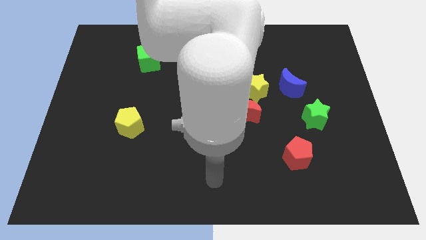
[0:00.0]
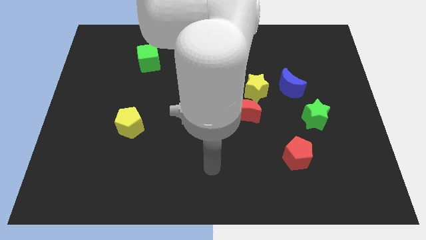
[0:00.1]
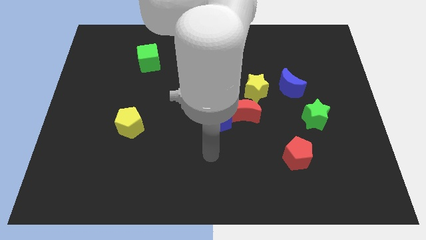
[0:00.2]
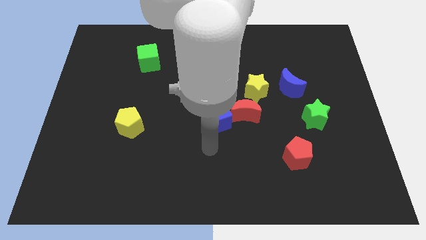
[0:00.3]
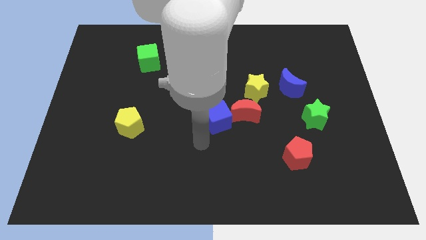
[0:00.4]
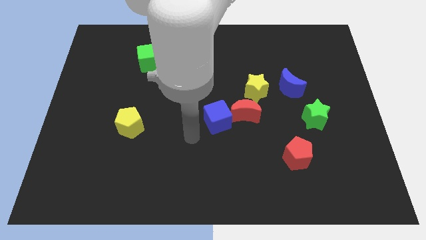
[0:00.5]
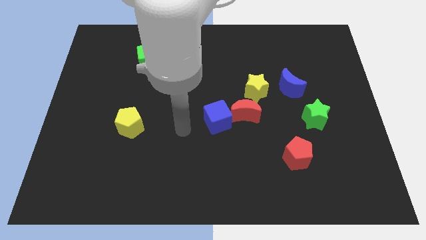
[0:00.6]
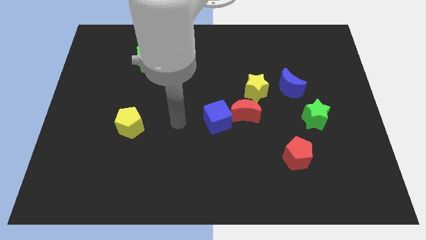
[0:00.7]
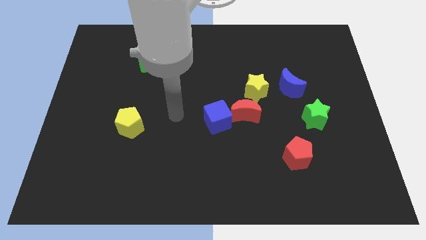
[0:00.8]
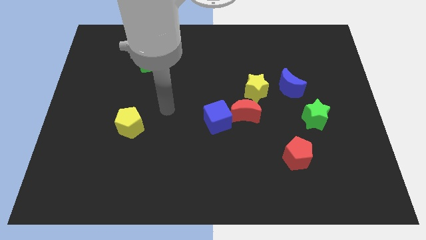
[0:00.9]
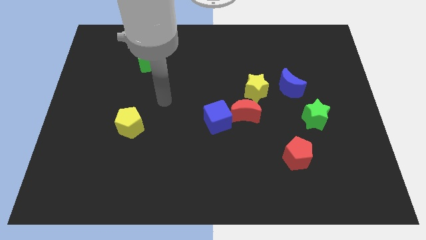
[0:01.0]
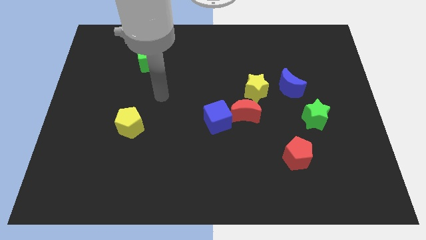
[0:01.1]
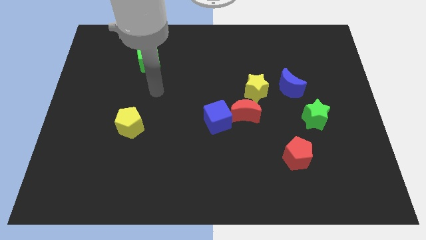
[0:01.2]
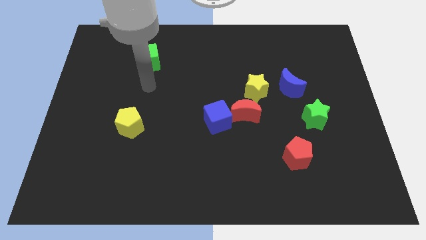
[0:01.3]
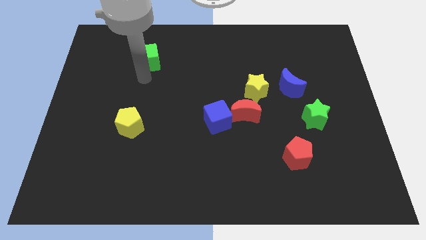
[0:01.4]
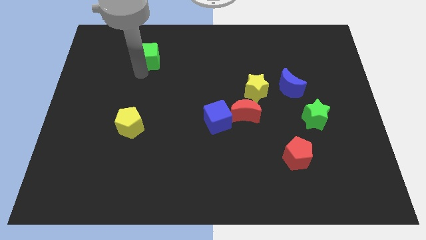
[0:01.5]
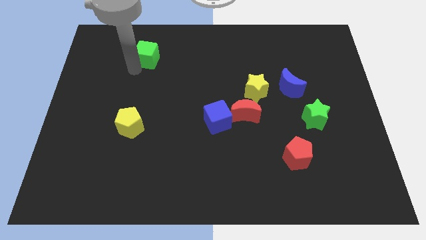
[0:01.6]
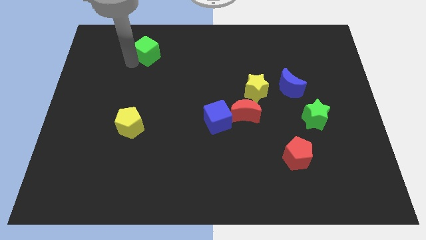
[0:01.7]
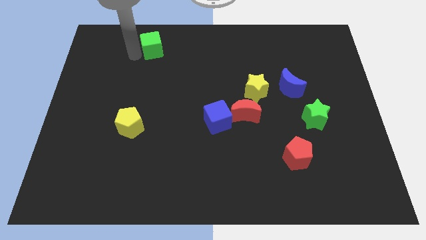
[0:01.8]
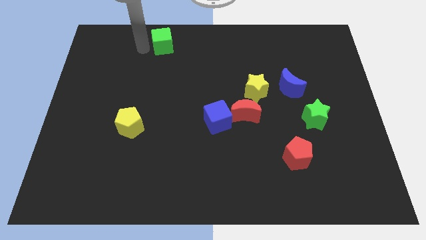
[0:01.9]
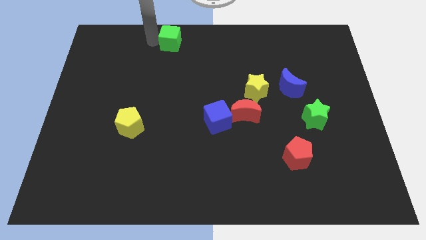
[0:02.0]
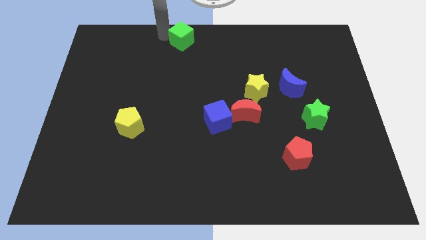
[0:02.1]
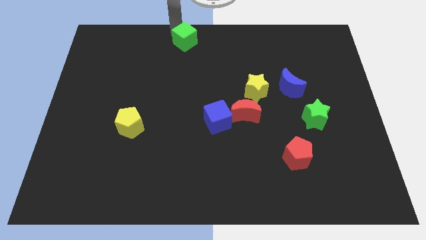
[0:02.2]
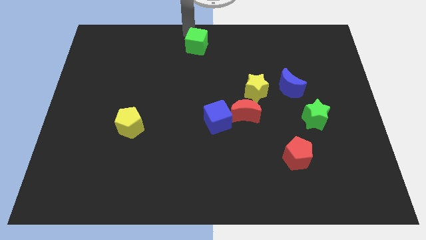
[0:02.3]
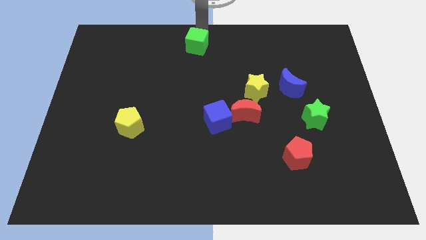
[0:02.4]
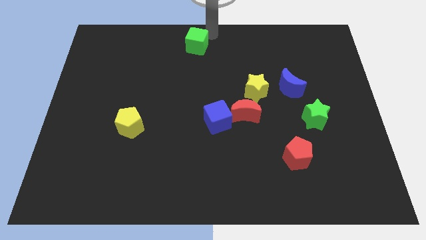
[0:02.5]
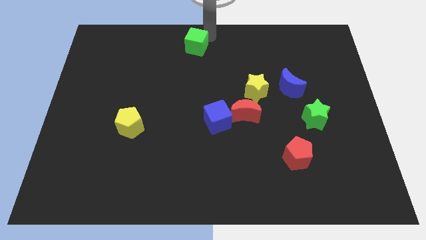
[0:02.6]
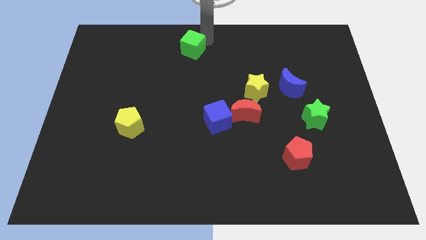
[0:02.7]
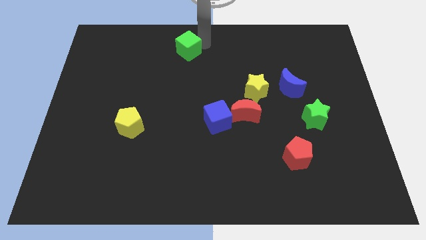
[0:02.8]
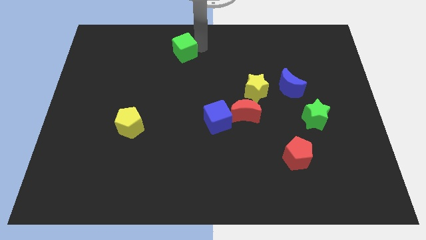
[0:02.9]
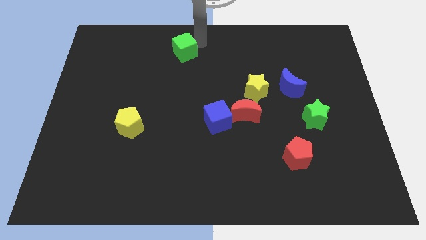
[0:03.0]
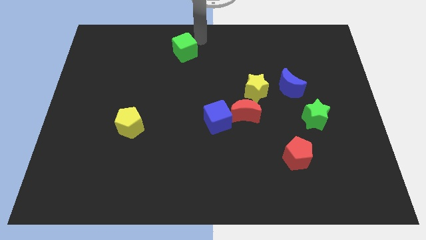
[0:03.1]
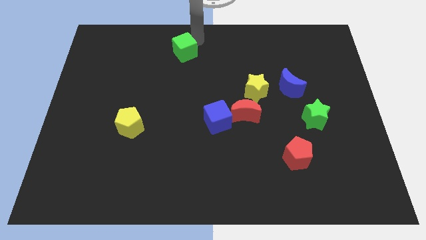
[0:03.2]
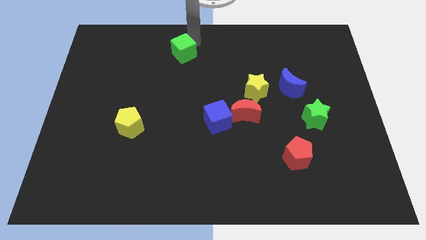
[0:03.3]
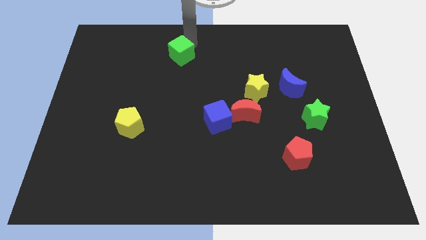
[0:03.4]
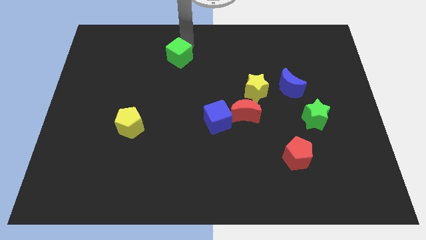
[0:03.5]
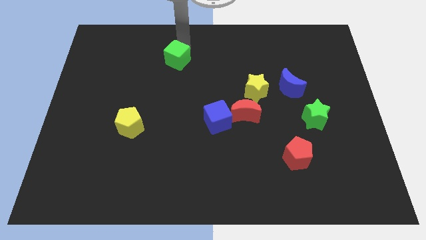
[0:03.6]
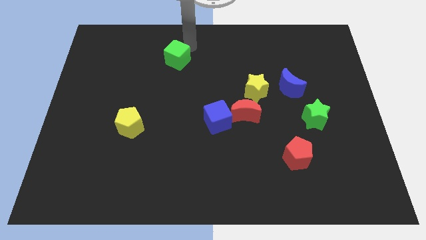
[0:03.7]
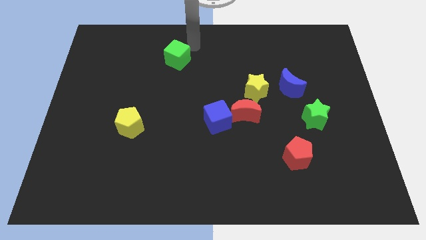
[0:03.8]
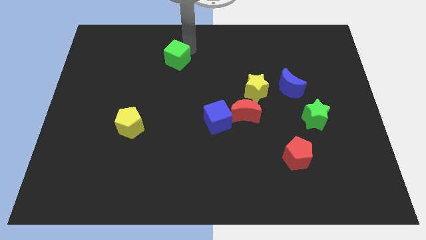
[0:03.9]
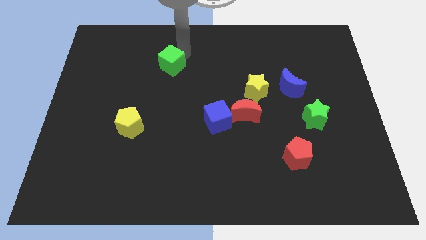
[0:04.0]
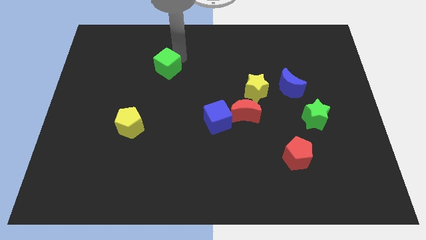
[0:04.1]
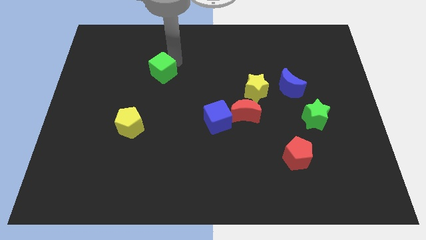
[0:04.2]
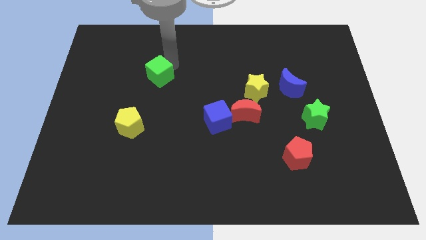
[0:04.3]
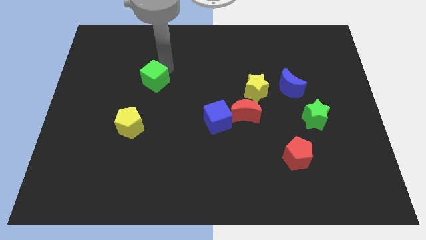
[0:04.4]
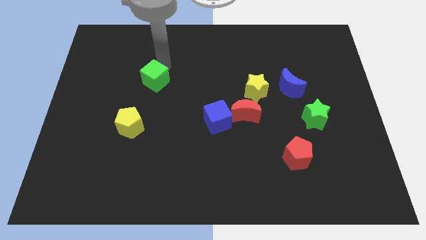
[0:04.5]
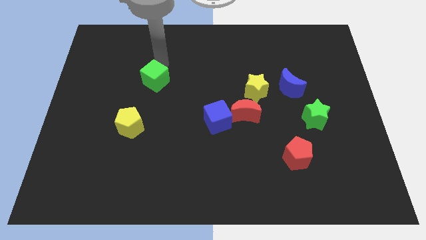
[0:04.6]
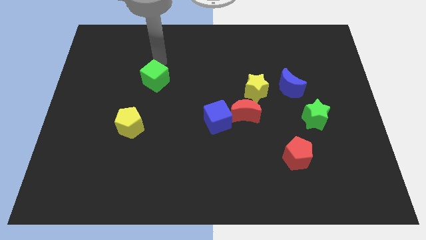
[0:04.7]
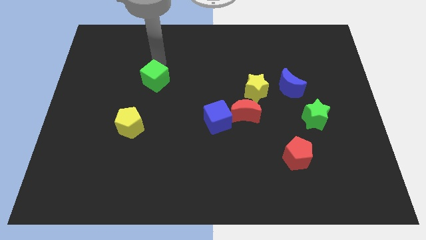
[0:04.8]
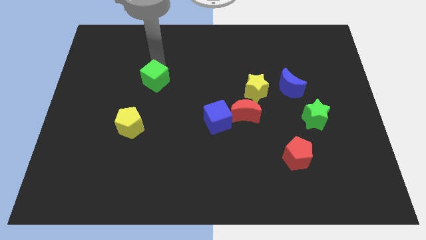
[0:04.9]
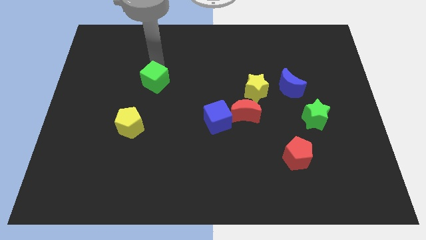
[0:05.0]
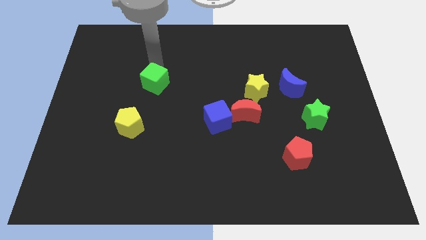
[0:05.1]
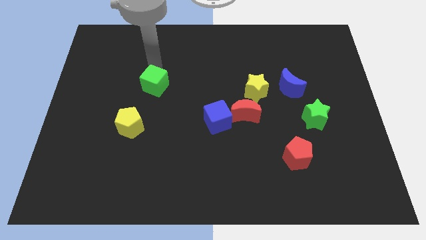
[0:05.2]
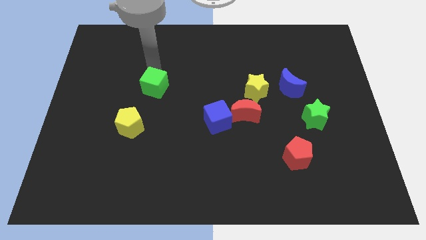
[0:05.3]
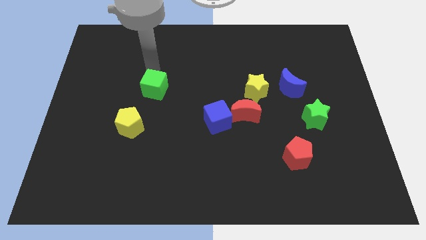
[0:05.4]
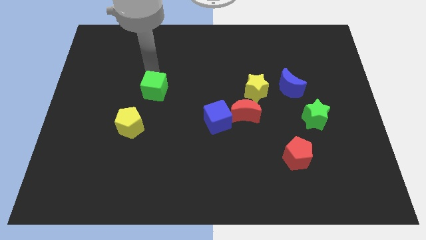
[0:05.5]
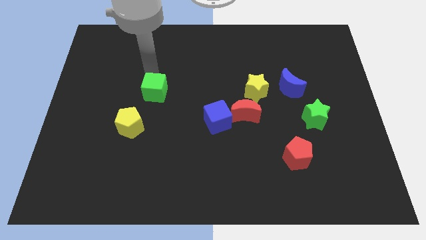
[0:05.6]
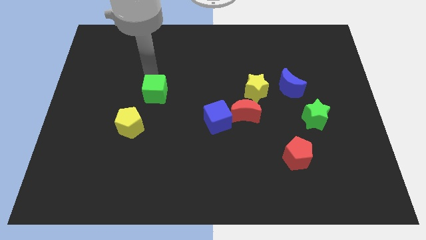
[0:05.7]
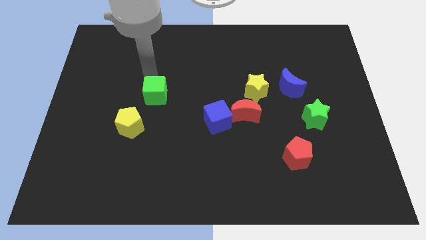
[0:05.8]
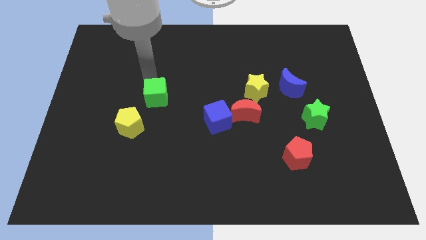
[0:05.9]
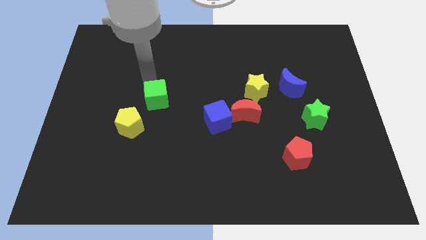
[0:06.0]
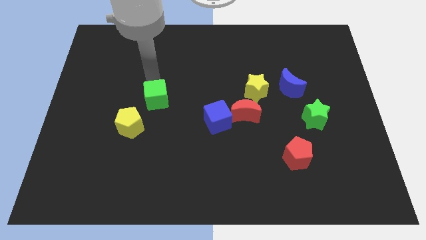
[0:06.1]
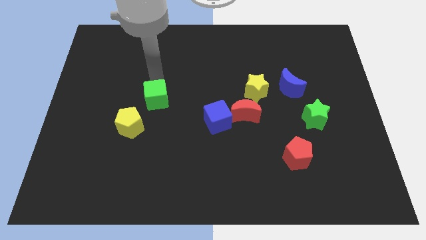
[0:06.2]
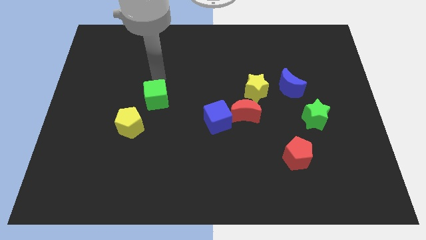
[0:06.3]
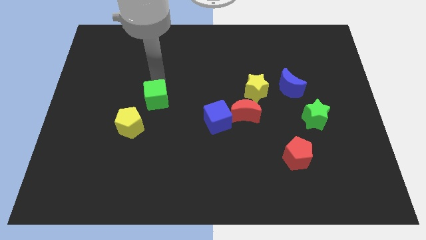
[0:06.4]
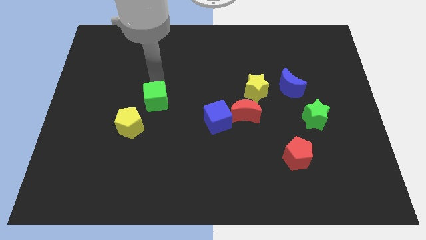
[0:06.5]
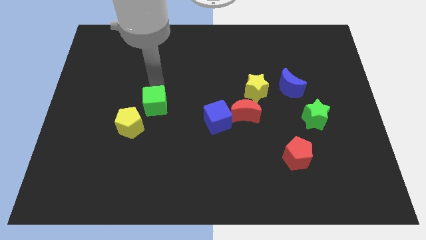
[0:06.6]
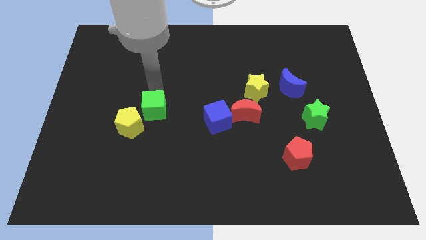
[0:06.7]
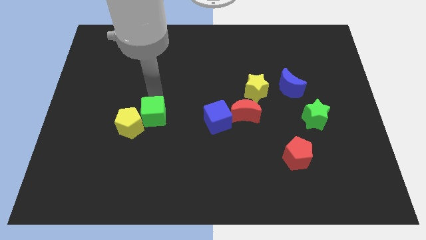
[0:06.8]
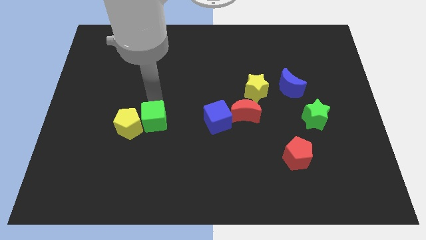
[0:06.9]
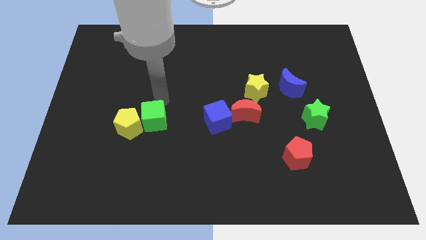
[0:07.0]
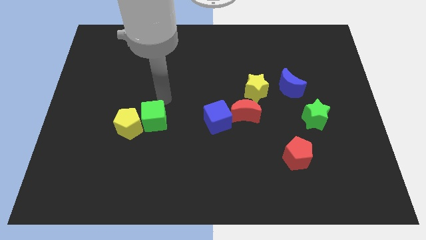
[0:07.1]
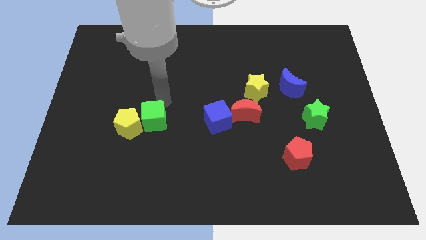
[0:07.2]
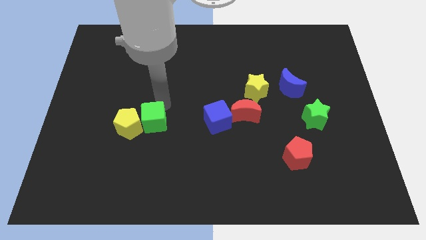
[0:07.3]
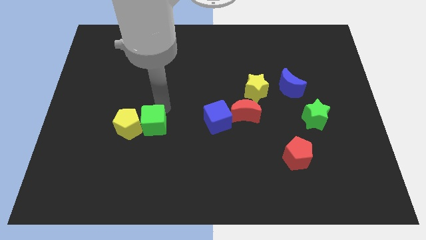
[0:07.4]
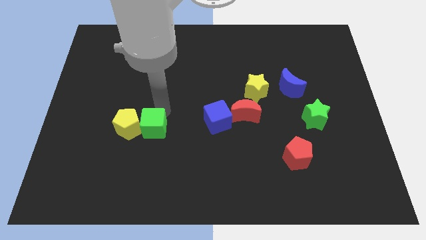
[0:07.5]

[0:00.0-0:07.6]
slide the green cube downwards

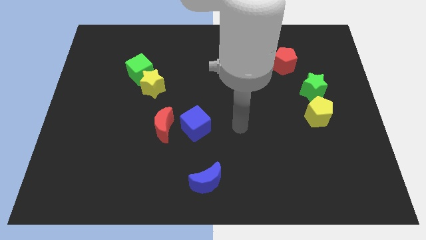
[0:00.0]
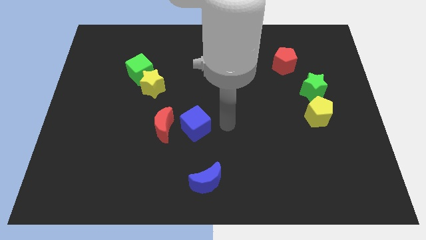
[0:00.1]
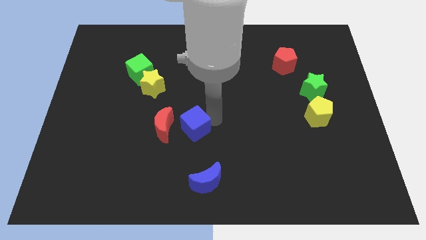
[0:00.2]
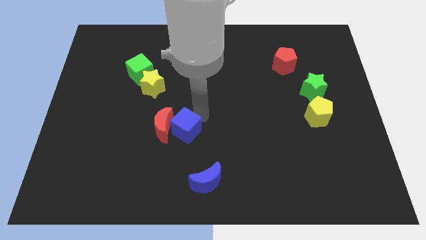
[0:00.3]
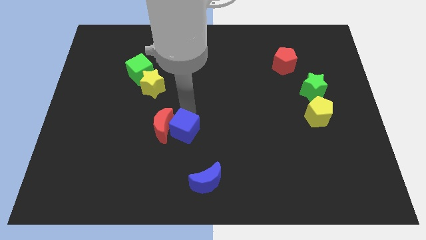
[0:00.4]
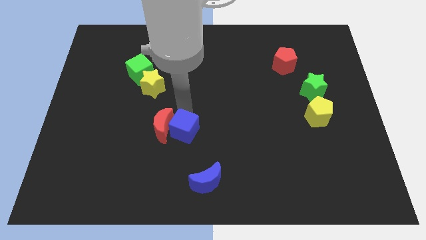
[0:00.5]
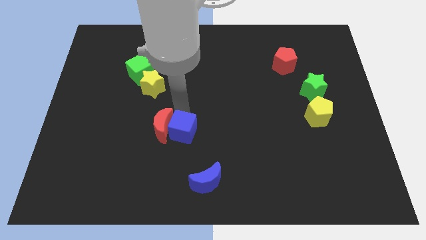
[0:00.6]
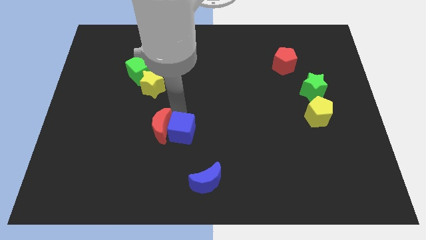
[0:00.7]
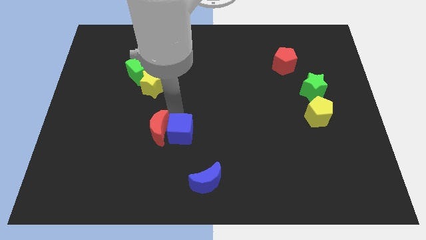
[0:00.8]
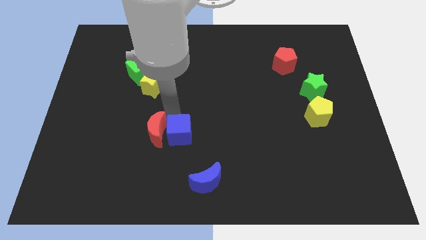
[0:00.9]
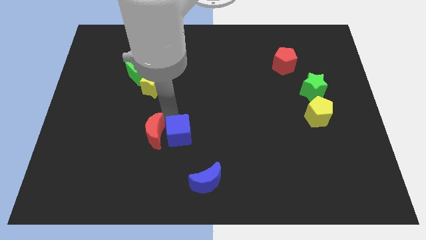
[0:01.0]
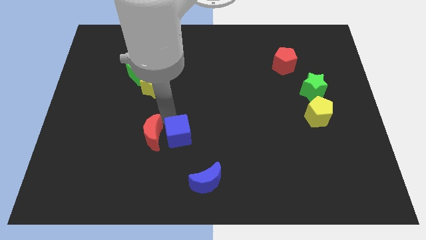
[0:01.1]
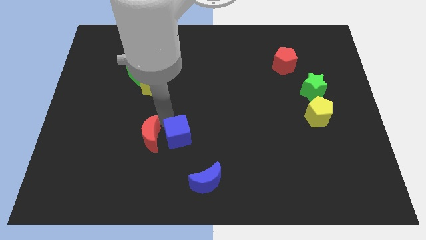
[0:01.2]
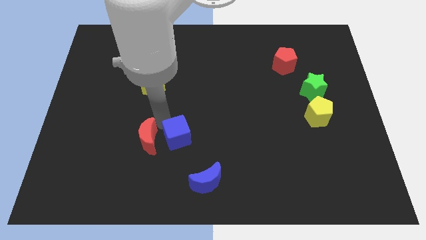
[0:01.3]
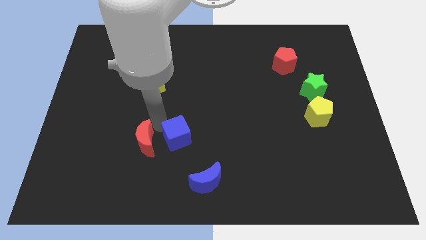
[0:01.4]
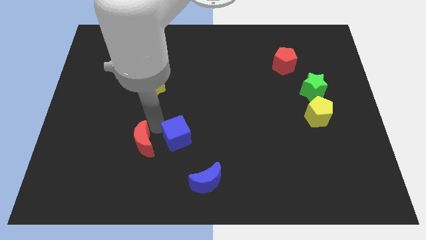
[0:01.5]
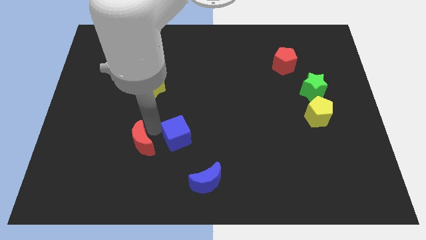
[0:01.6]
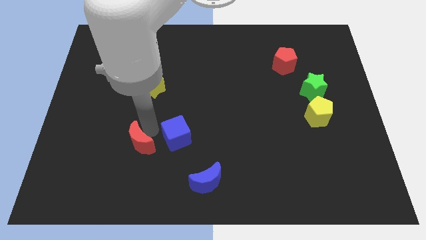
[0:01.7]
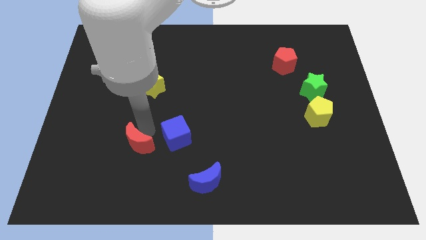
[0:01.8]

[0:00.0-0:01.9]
move the red moon diagonally downwards and to the left somewhat
